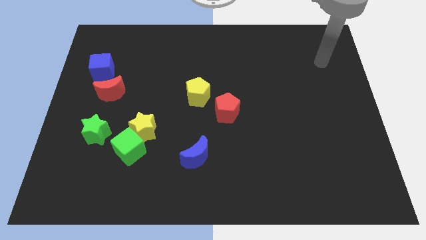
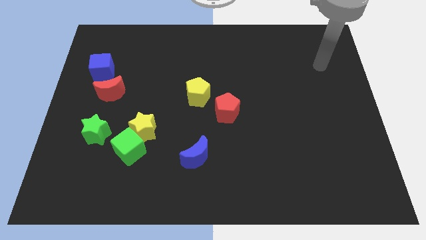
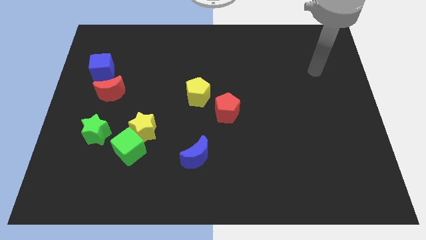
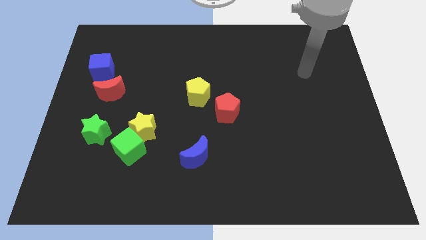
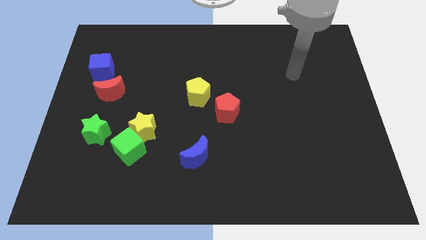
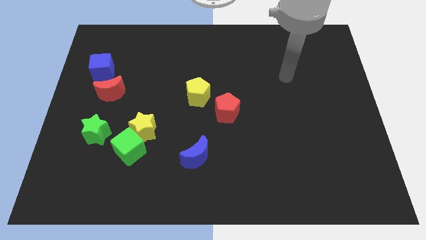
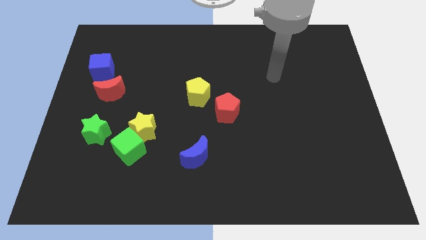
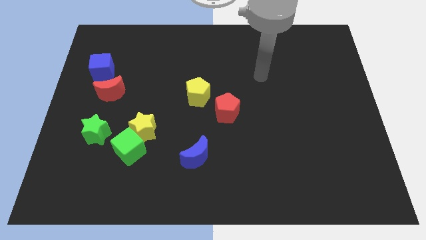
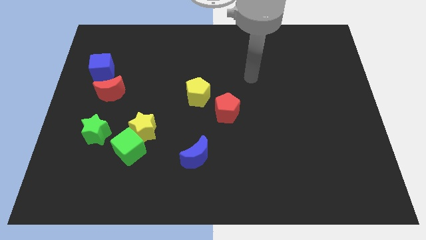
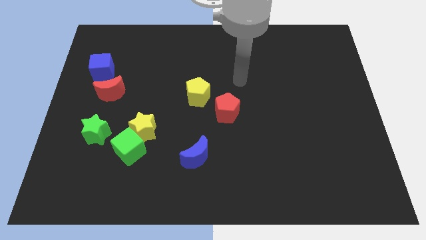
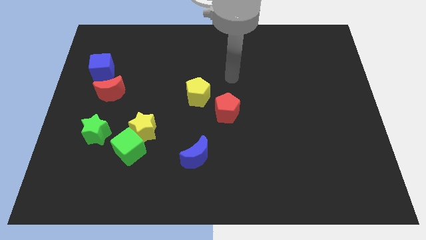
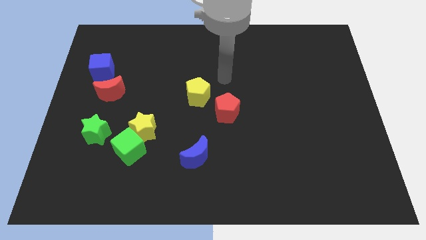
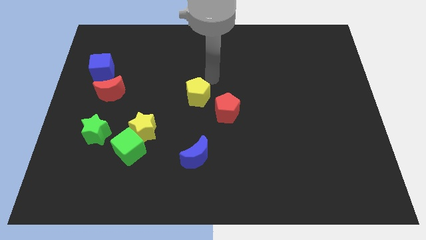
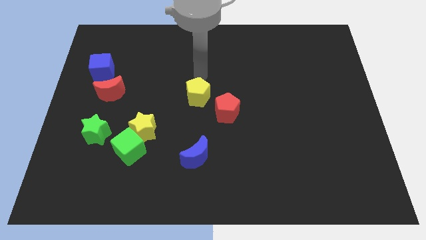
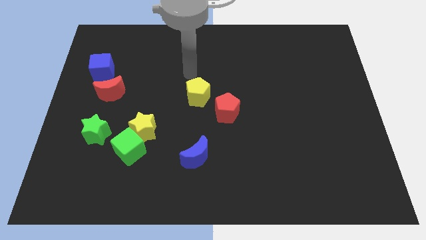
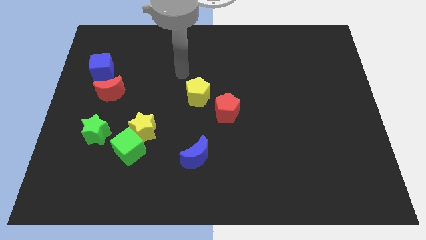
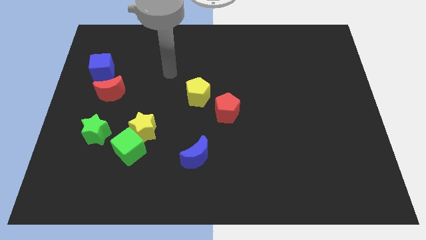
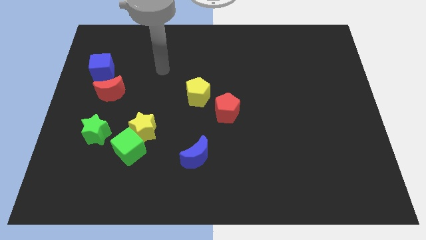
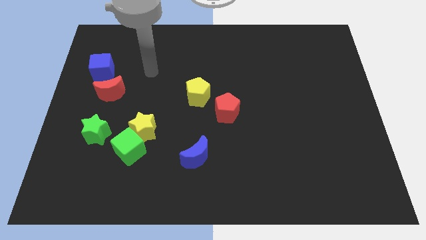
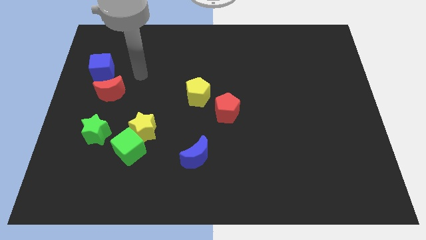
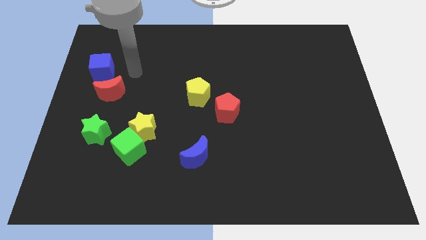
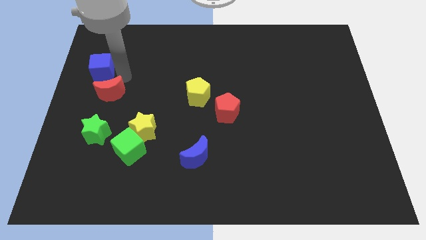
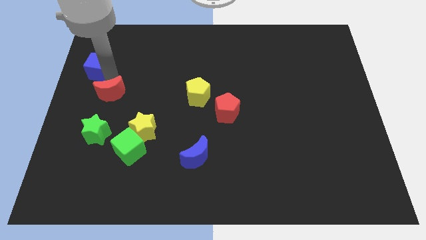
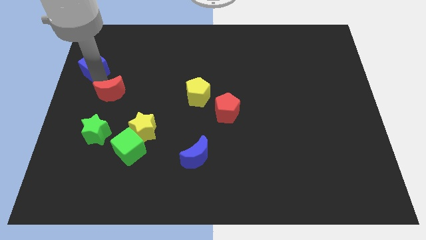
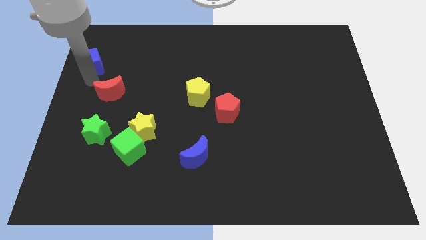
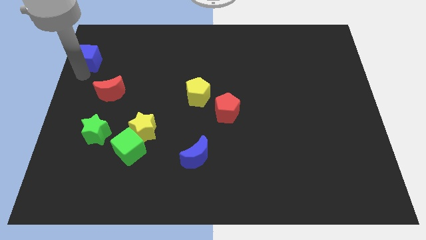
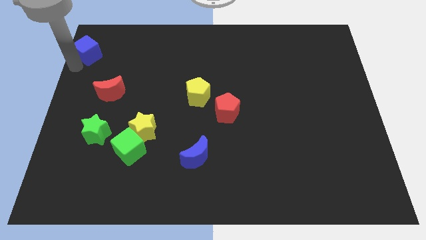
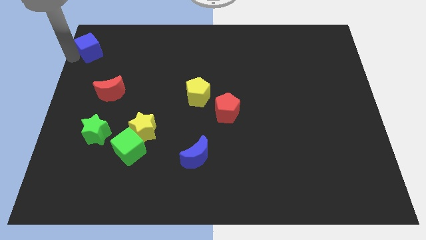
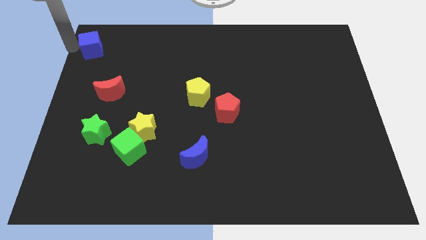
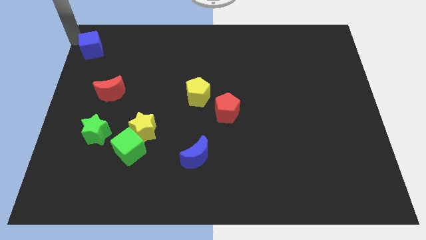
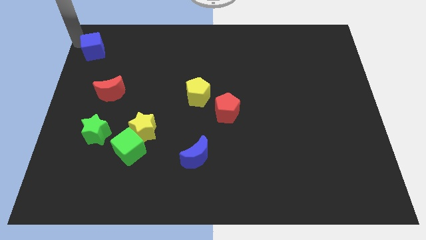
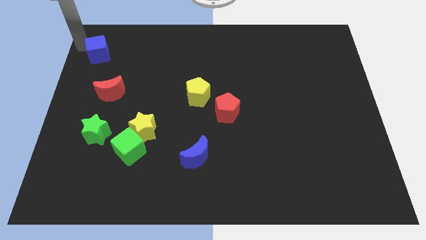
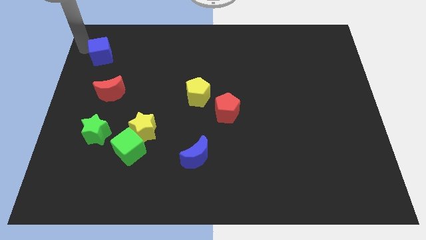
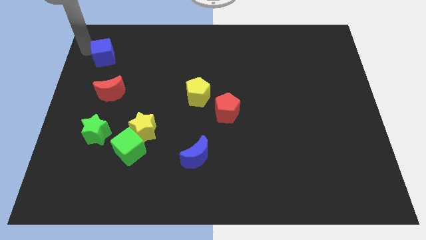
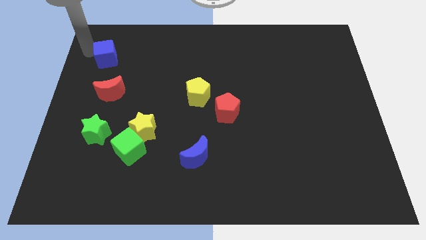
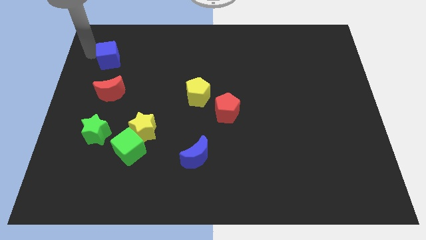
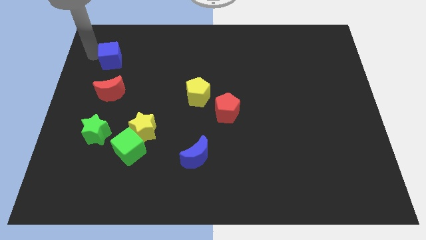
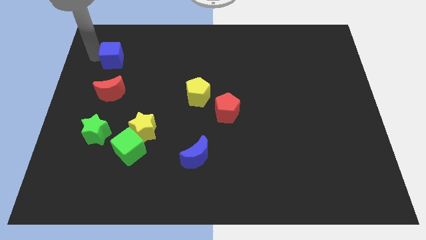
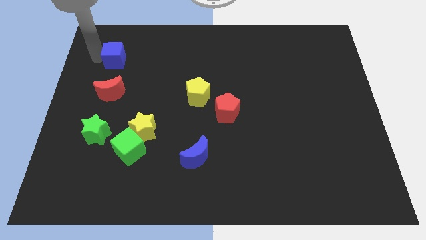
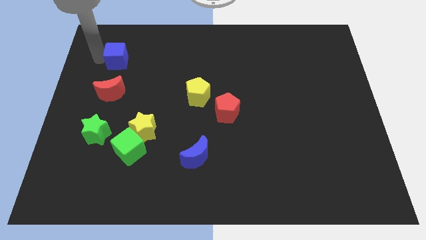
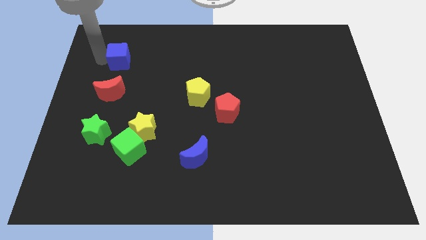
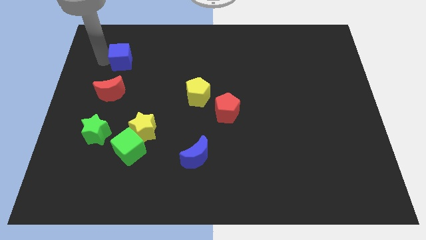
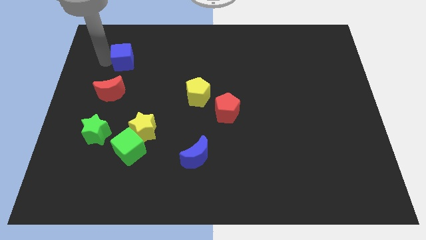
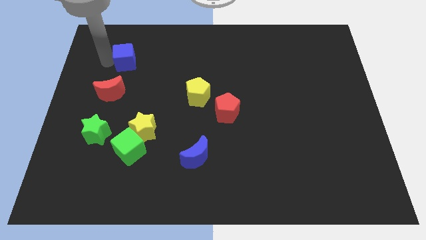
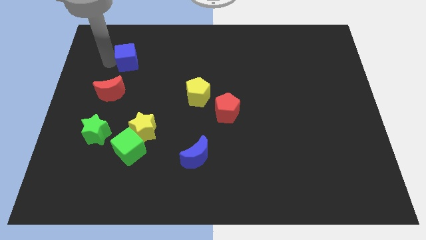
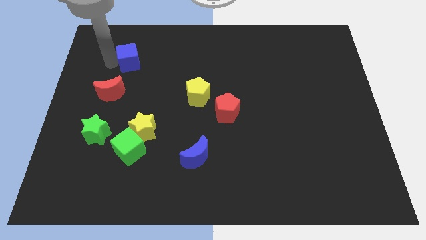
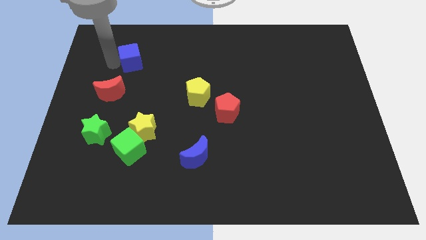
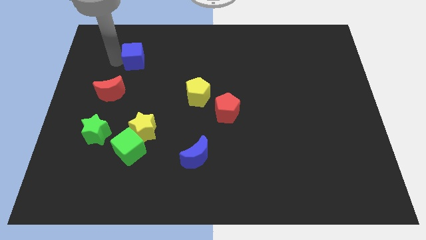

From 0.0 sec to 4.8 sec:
push the blue cube a little to the right

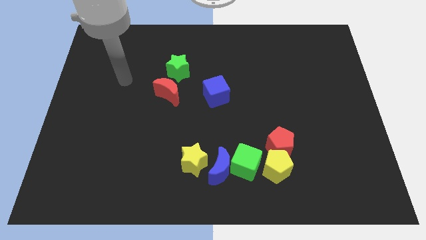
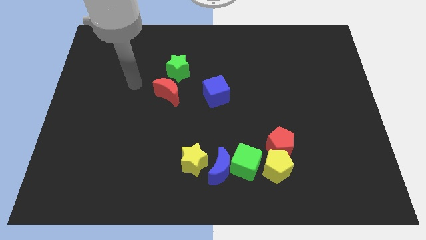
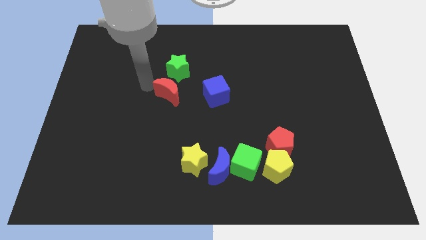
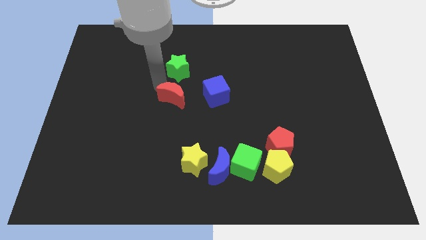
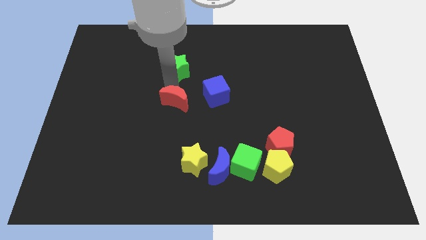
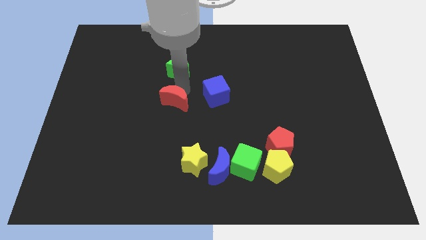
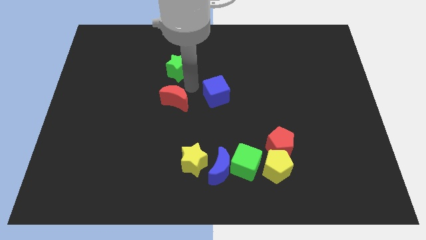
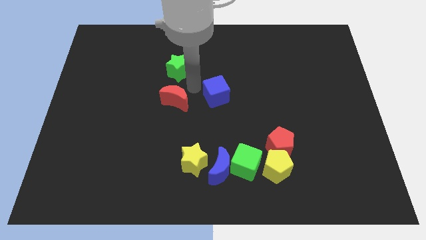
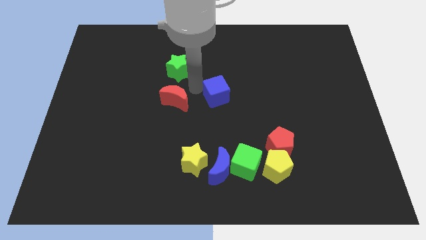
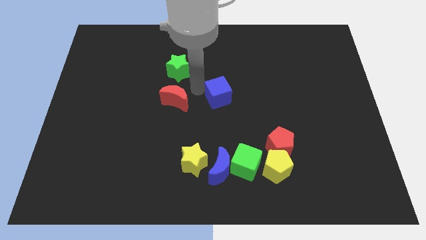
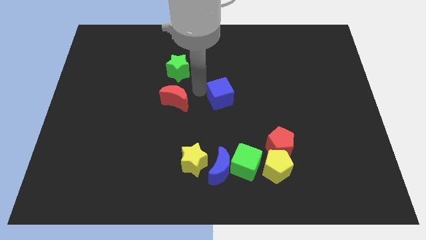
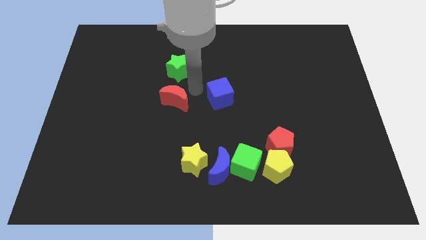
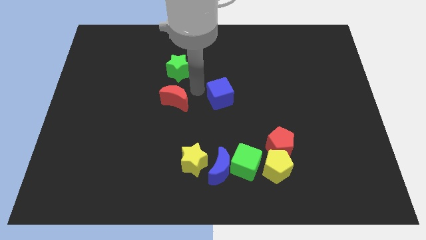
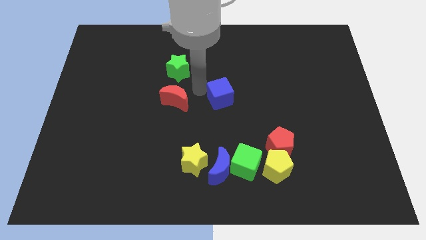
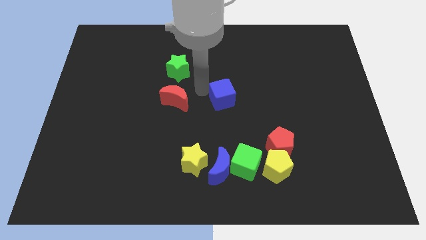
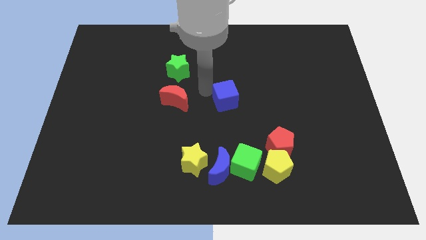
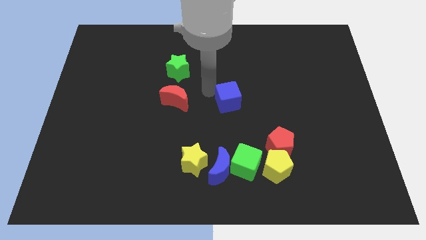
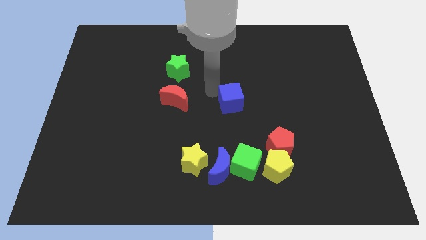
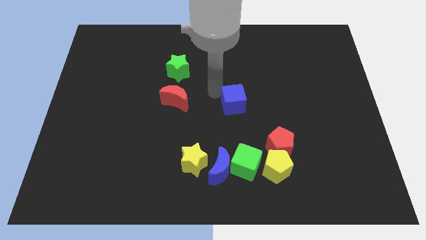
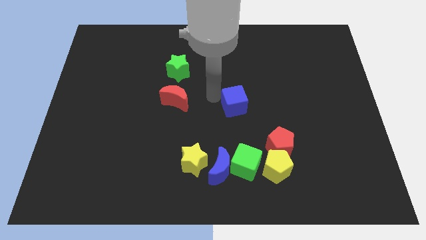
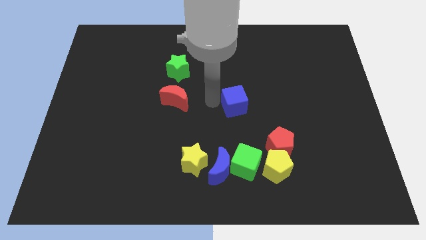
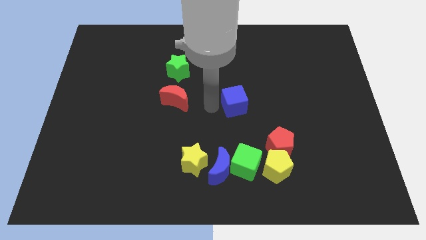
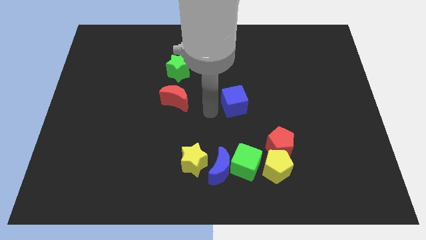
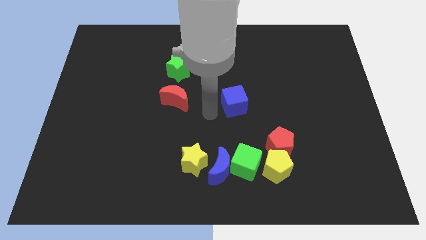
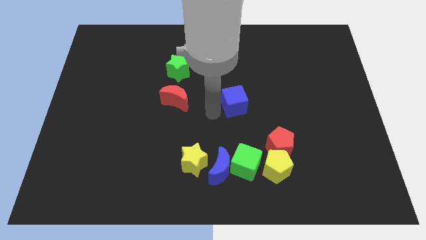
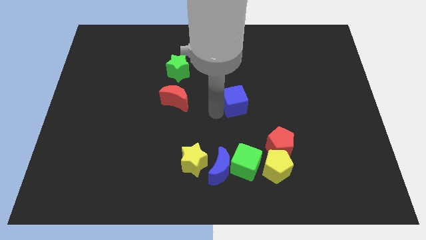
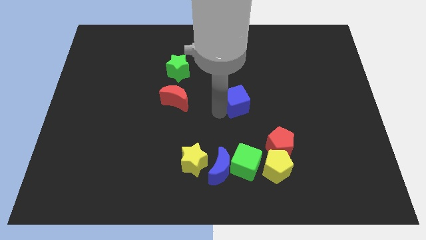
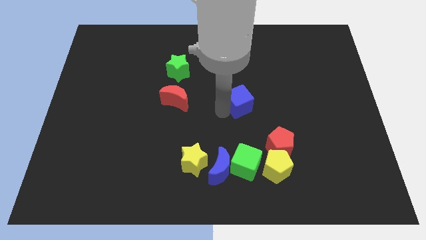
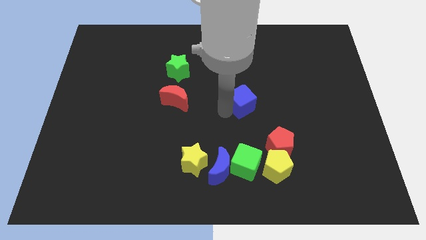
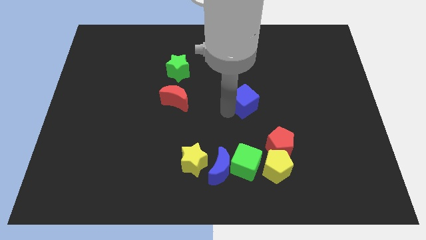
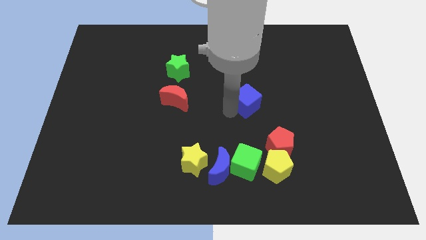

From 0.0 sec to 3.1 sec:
slightly push the blue cube right
